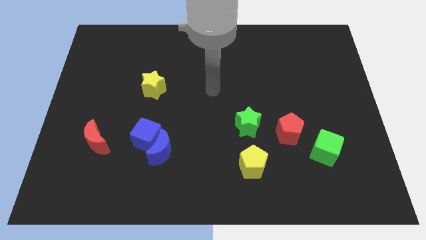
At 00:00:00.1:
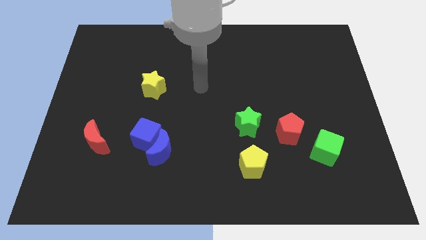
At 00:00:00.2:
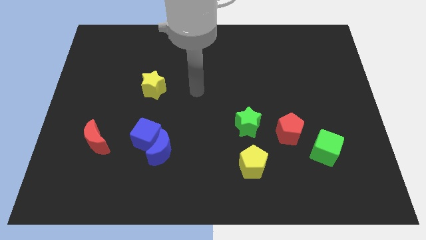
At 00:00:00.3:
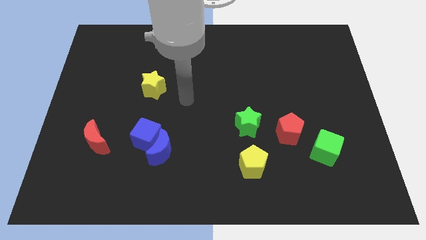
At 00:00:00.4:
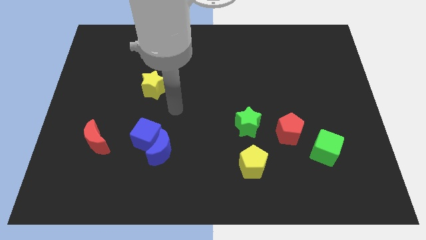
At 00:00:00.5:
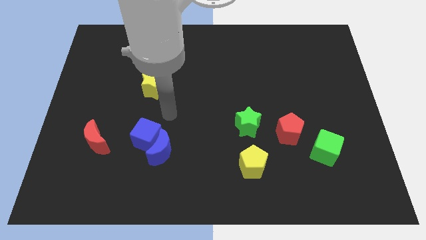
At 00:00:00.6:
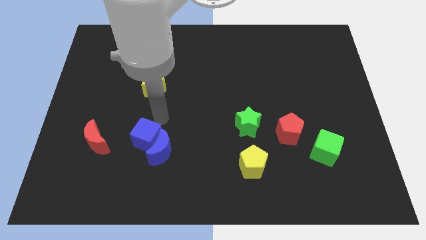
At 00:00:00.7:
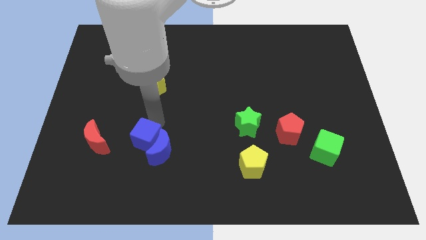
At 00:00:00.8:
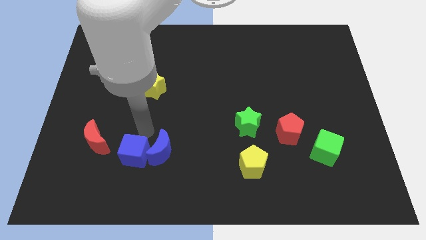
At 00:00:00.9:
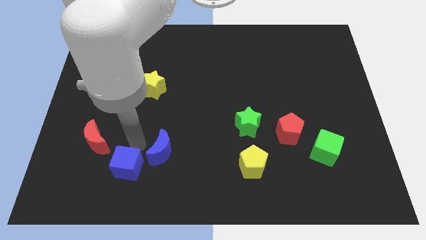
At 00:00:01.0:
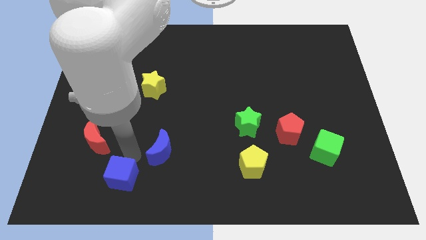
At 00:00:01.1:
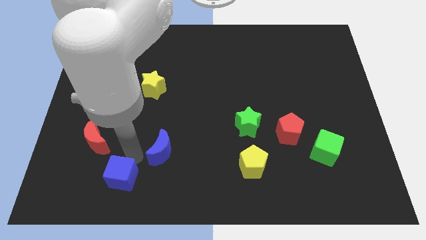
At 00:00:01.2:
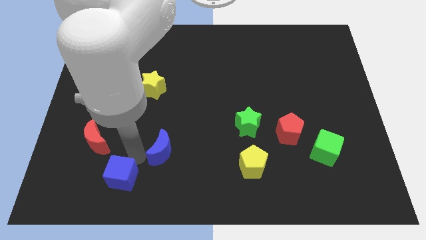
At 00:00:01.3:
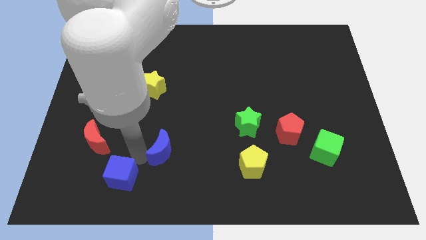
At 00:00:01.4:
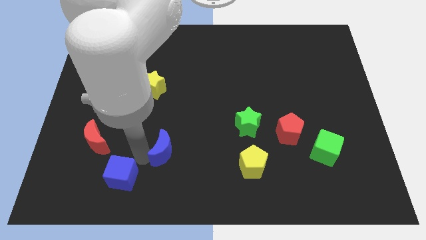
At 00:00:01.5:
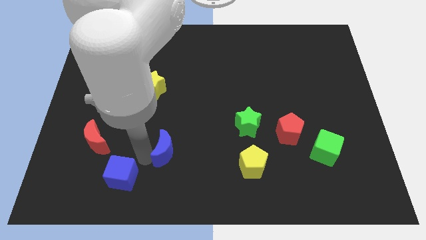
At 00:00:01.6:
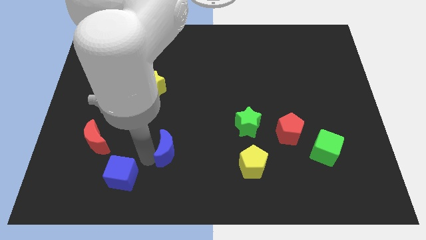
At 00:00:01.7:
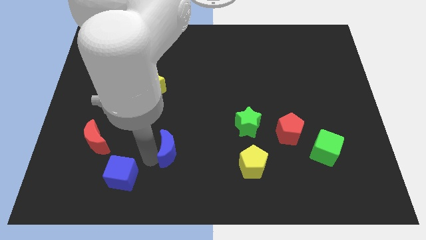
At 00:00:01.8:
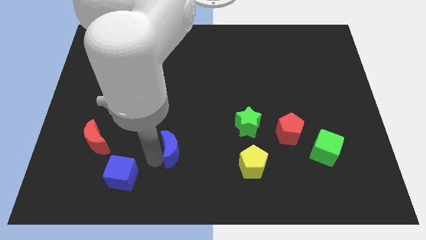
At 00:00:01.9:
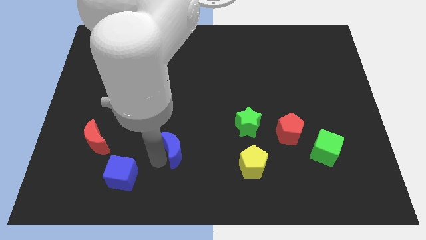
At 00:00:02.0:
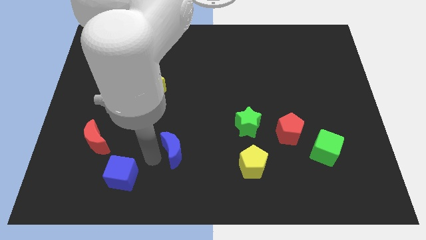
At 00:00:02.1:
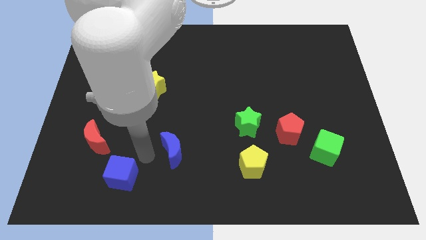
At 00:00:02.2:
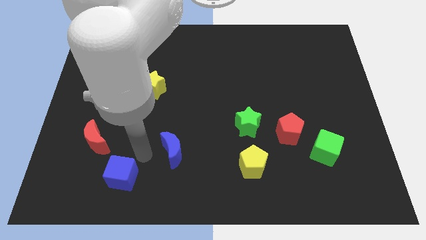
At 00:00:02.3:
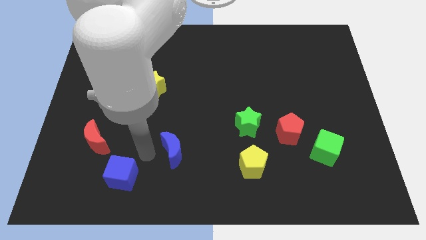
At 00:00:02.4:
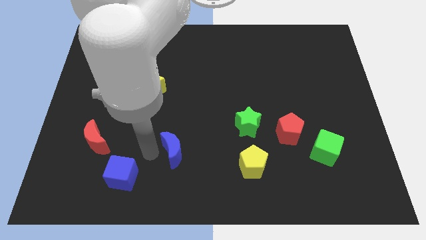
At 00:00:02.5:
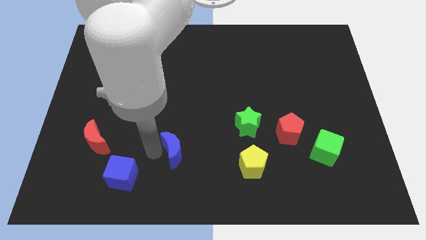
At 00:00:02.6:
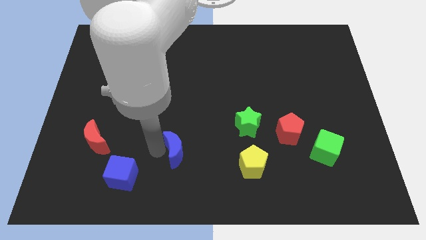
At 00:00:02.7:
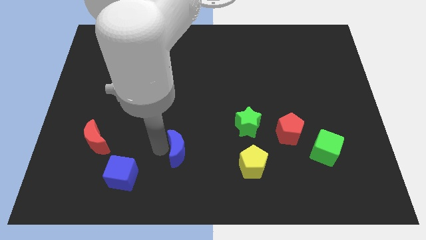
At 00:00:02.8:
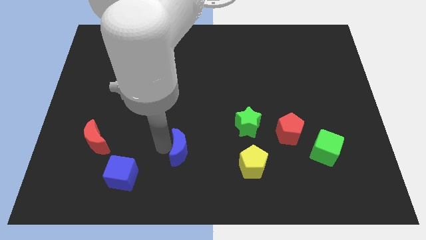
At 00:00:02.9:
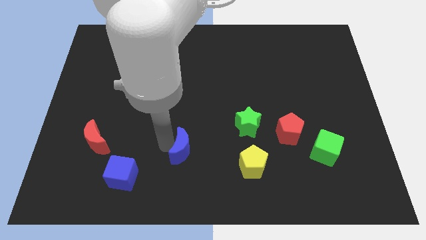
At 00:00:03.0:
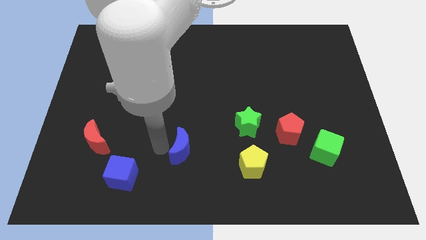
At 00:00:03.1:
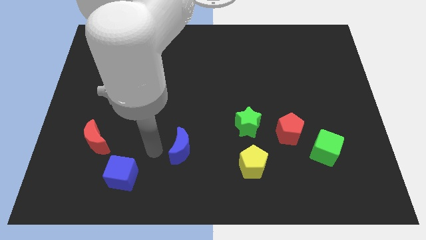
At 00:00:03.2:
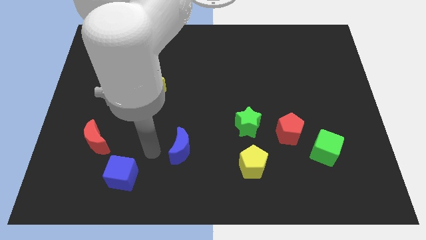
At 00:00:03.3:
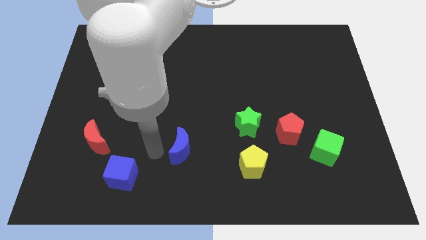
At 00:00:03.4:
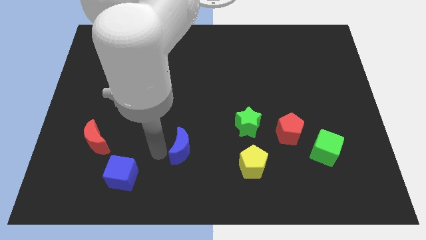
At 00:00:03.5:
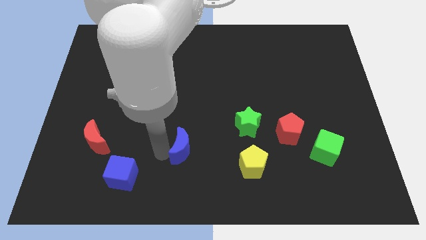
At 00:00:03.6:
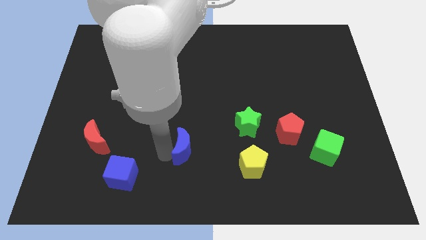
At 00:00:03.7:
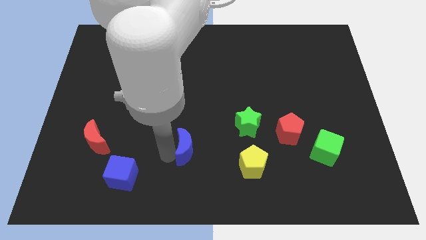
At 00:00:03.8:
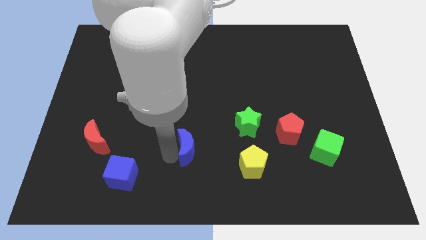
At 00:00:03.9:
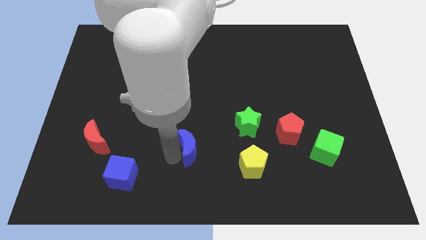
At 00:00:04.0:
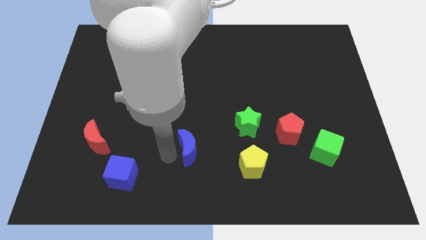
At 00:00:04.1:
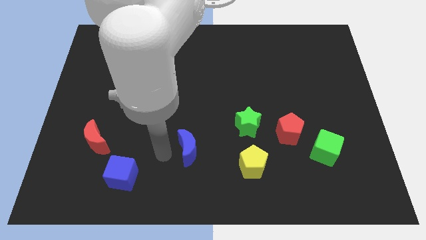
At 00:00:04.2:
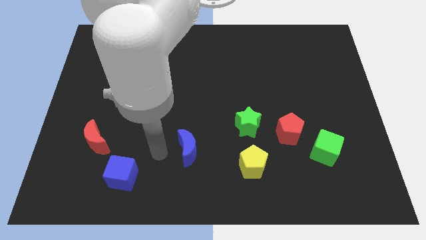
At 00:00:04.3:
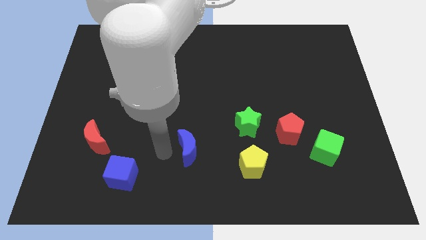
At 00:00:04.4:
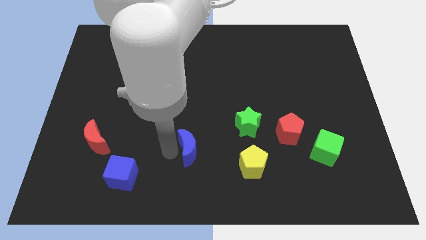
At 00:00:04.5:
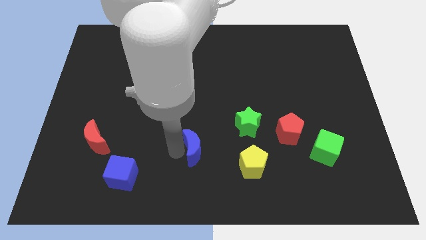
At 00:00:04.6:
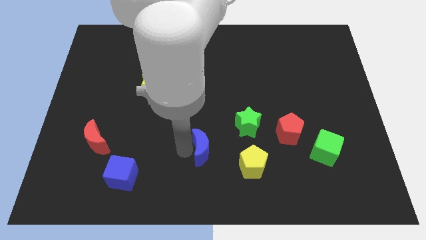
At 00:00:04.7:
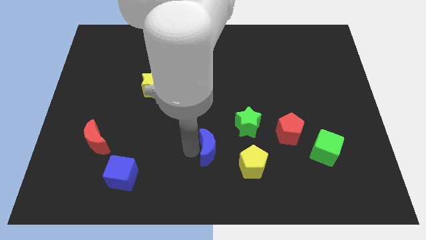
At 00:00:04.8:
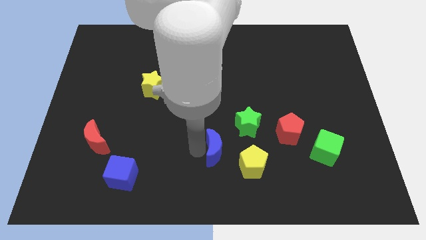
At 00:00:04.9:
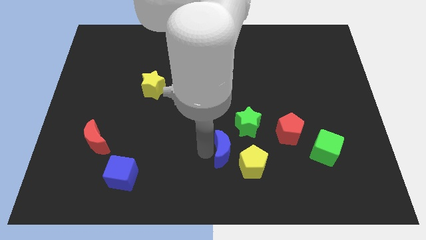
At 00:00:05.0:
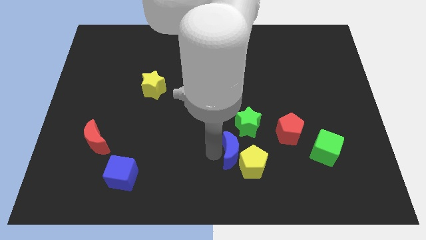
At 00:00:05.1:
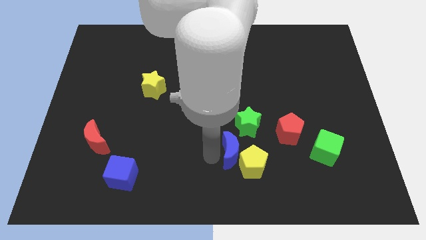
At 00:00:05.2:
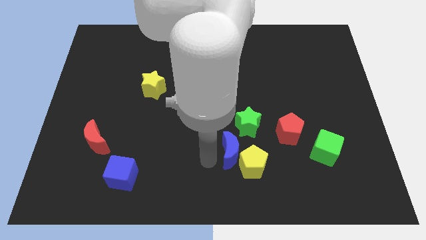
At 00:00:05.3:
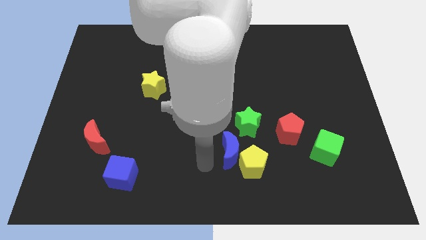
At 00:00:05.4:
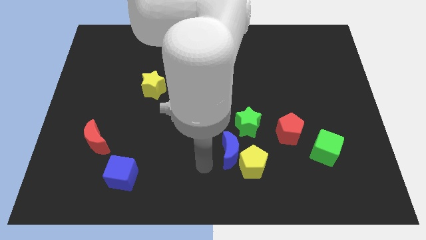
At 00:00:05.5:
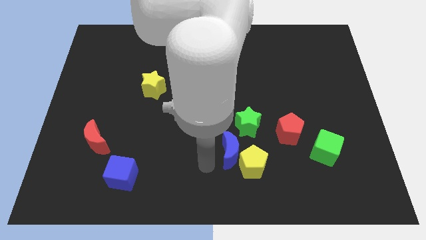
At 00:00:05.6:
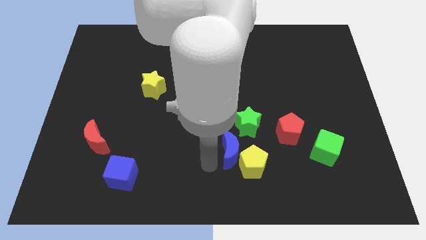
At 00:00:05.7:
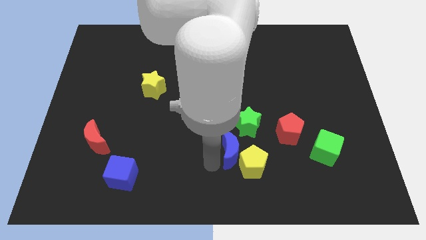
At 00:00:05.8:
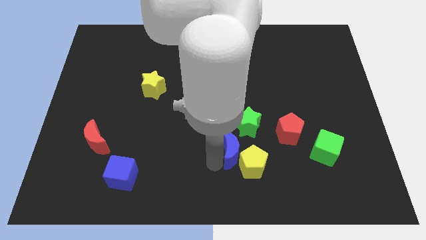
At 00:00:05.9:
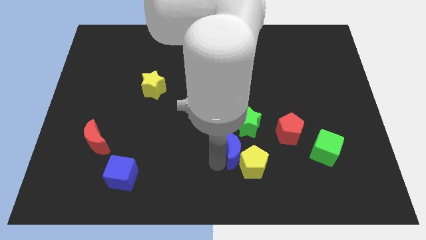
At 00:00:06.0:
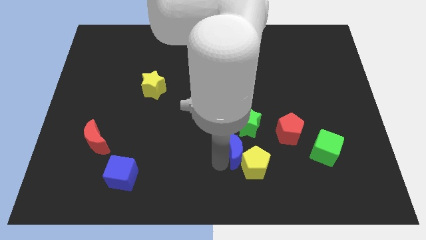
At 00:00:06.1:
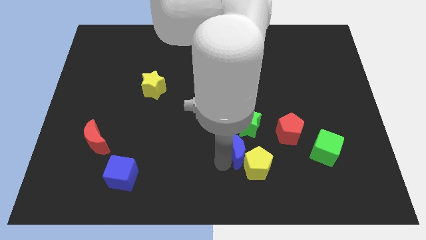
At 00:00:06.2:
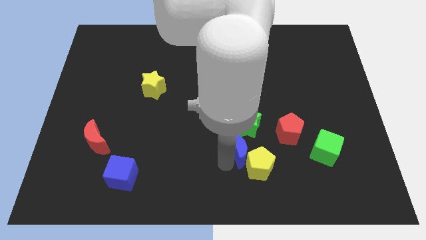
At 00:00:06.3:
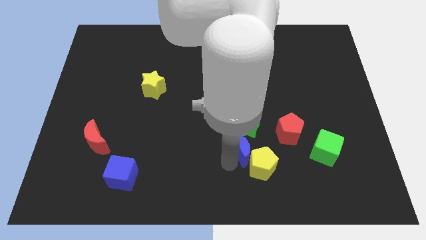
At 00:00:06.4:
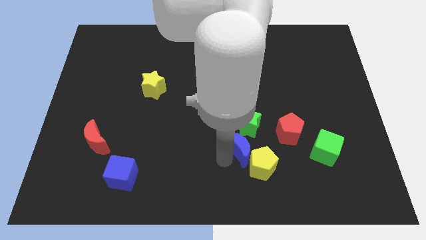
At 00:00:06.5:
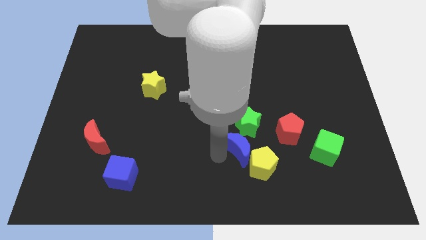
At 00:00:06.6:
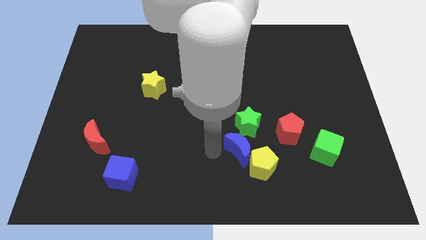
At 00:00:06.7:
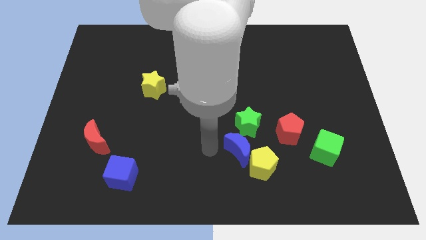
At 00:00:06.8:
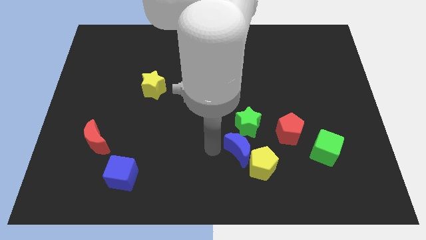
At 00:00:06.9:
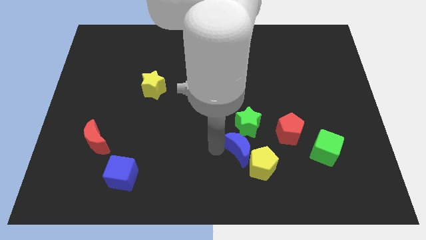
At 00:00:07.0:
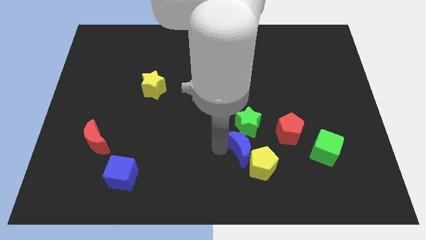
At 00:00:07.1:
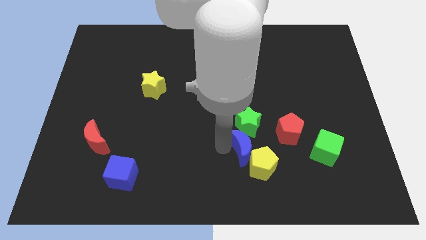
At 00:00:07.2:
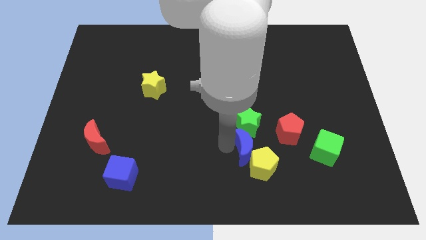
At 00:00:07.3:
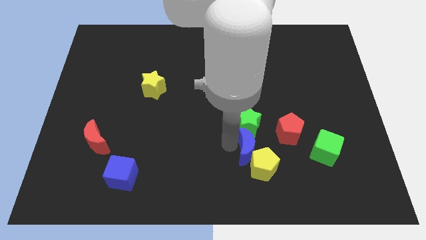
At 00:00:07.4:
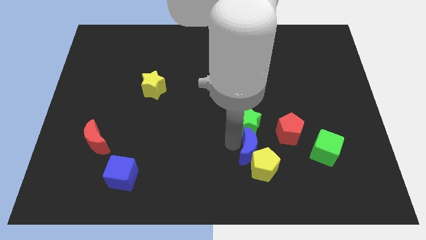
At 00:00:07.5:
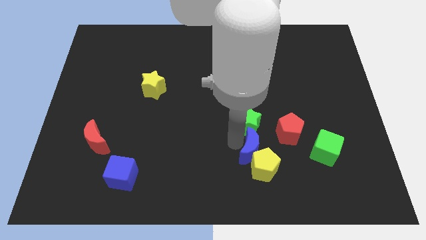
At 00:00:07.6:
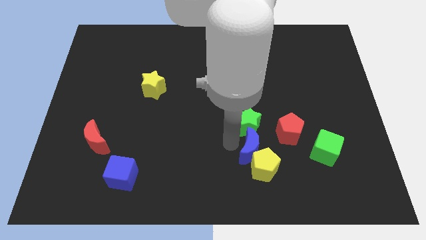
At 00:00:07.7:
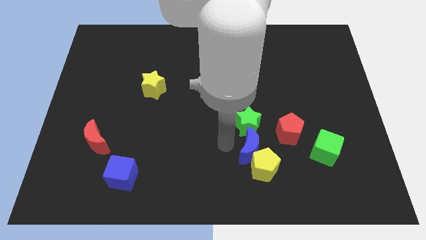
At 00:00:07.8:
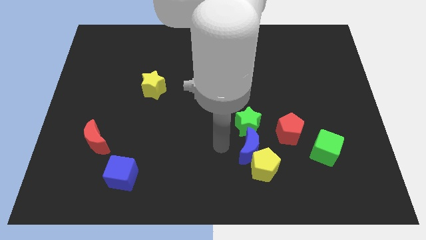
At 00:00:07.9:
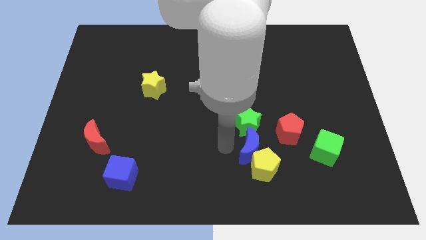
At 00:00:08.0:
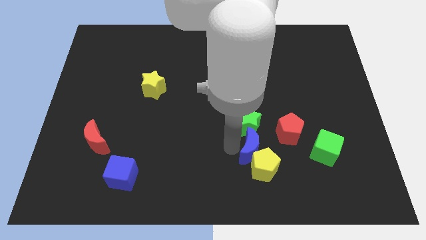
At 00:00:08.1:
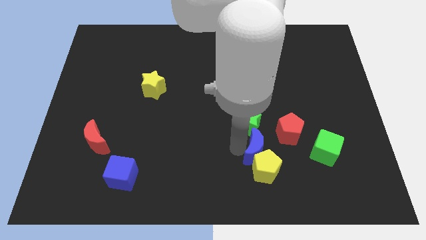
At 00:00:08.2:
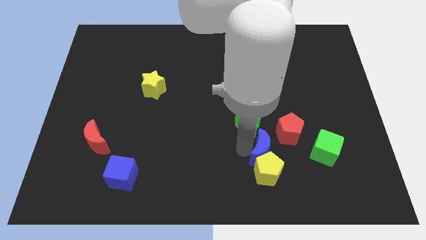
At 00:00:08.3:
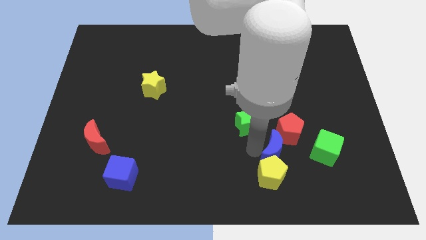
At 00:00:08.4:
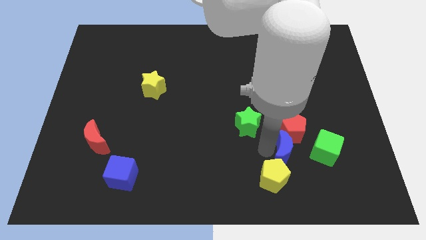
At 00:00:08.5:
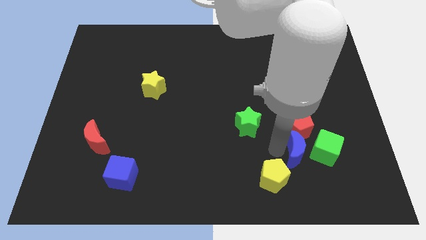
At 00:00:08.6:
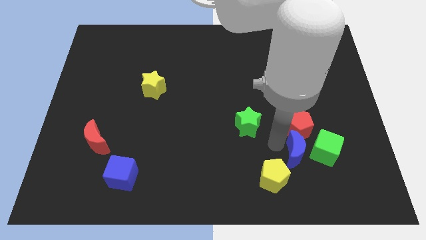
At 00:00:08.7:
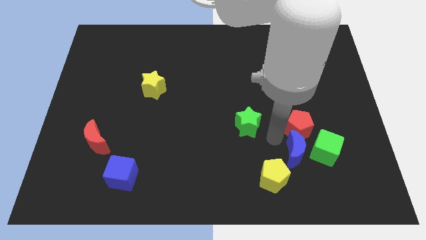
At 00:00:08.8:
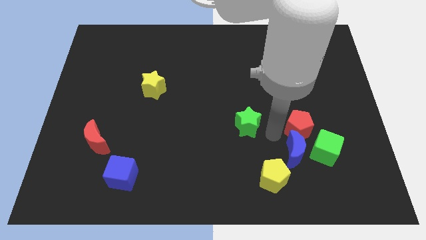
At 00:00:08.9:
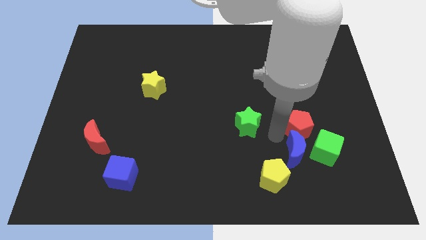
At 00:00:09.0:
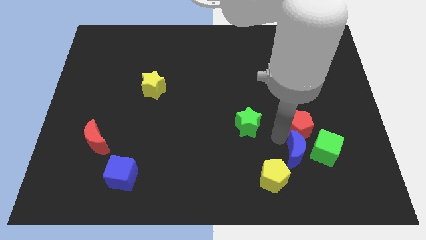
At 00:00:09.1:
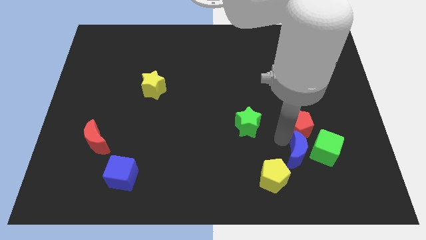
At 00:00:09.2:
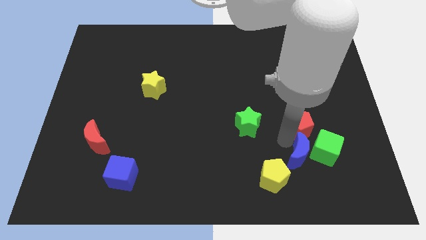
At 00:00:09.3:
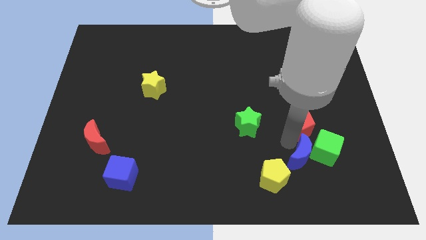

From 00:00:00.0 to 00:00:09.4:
put the blue moon to the right side of the yellow pentagon
